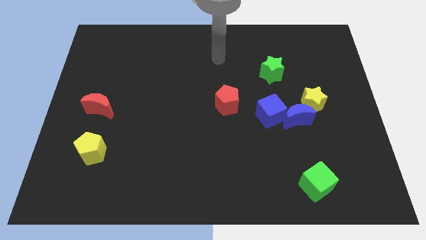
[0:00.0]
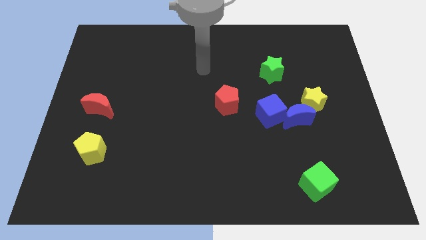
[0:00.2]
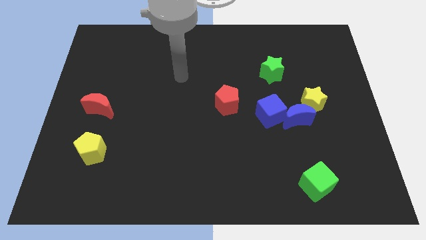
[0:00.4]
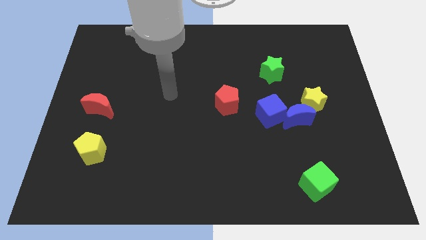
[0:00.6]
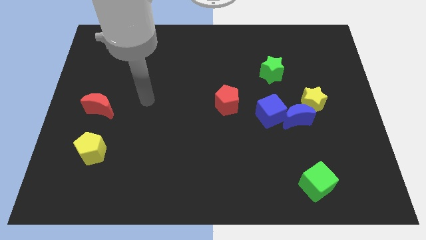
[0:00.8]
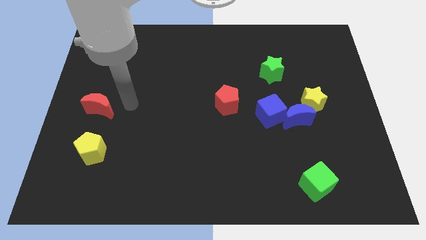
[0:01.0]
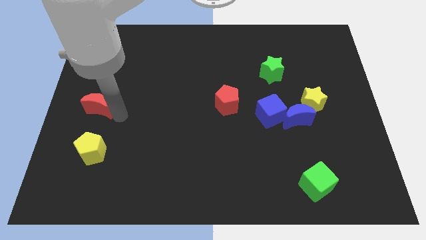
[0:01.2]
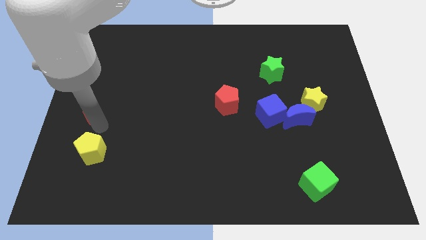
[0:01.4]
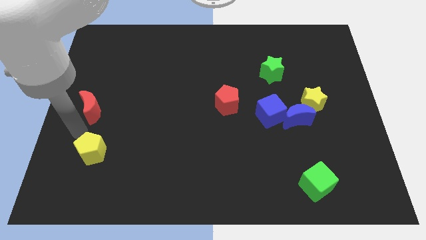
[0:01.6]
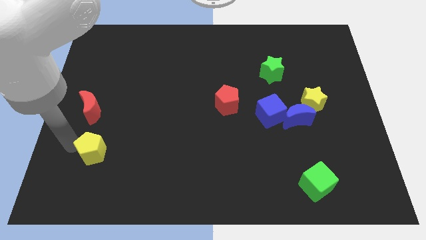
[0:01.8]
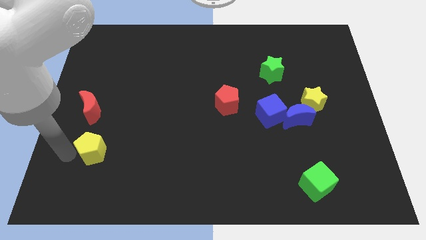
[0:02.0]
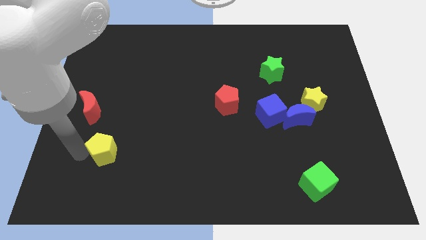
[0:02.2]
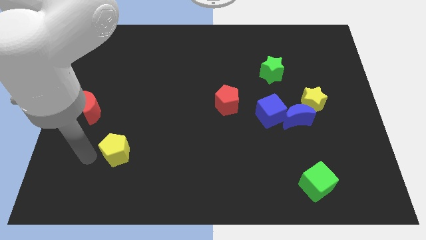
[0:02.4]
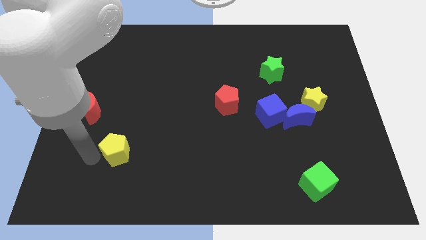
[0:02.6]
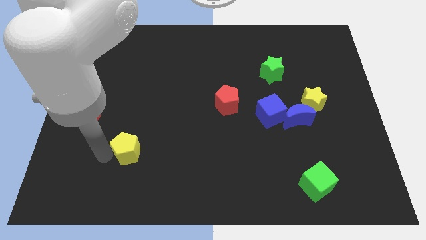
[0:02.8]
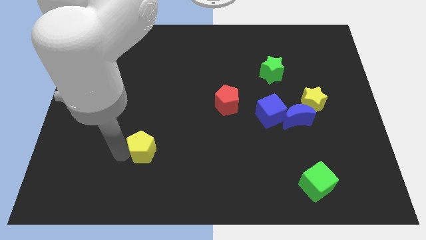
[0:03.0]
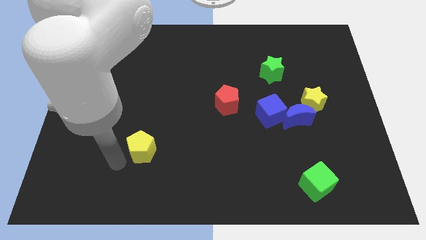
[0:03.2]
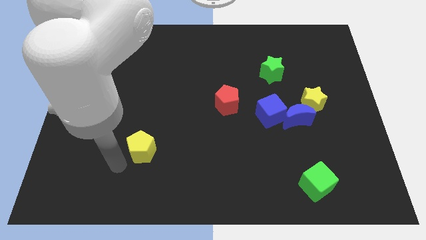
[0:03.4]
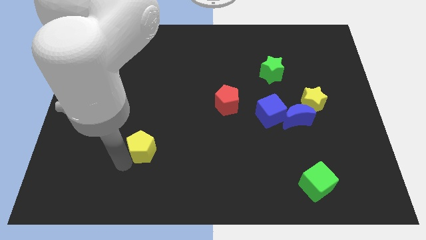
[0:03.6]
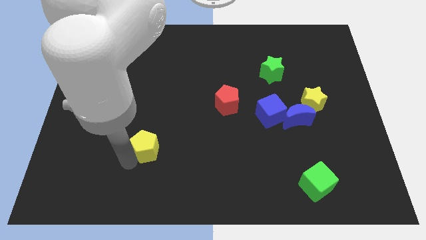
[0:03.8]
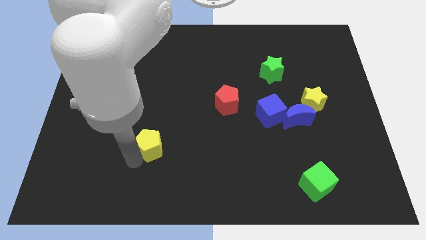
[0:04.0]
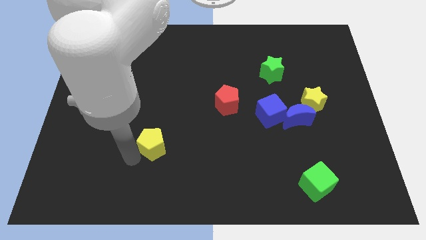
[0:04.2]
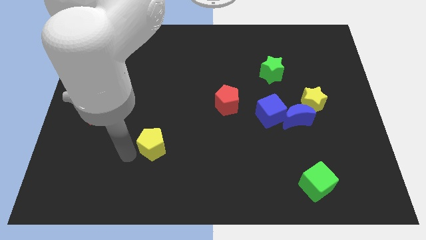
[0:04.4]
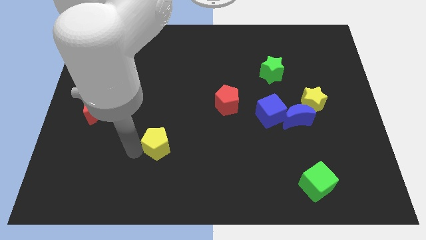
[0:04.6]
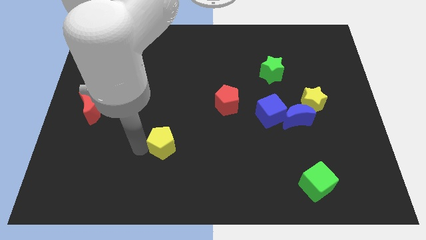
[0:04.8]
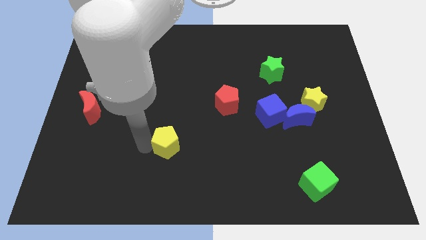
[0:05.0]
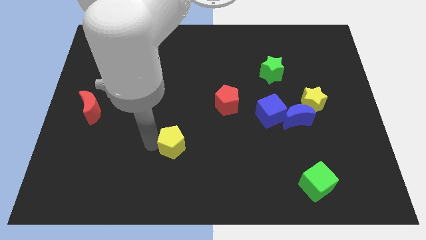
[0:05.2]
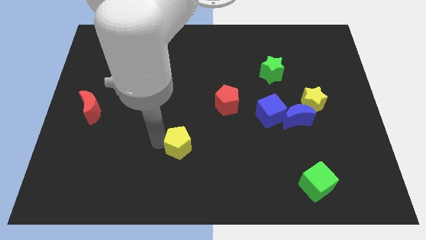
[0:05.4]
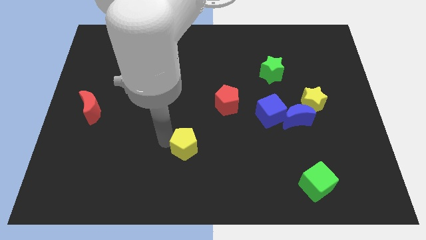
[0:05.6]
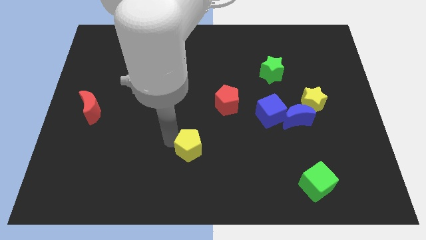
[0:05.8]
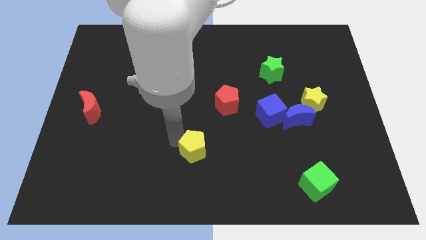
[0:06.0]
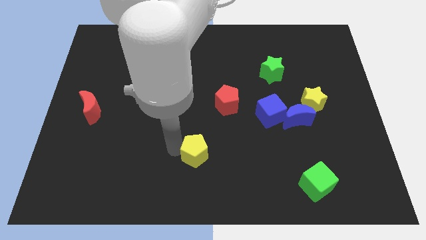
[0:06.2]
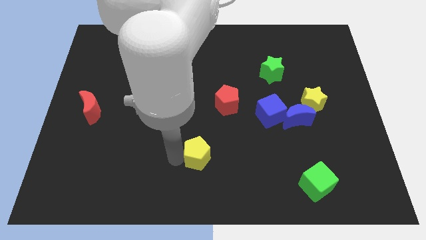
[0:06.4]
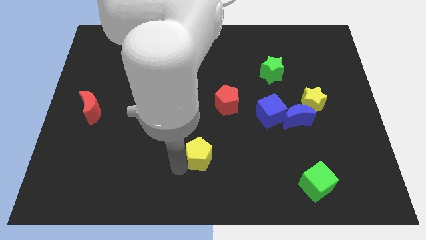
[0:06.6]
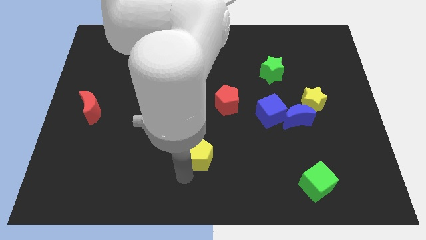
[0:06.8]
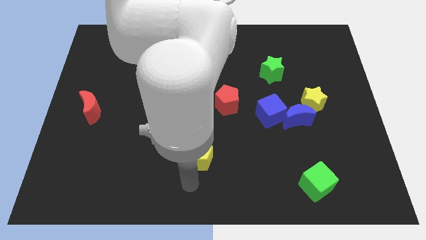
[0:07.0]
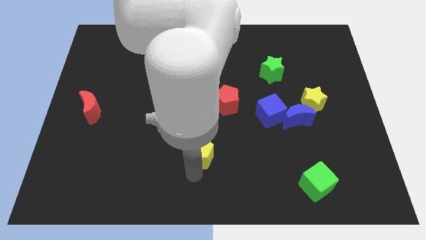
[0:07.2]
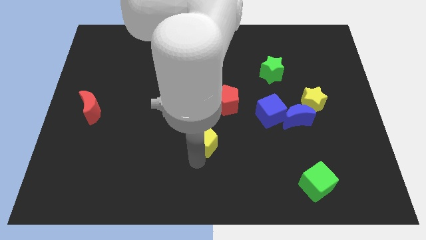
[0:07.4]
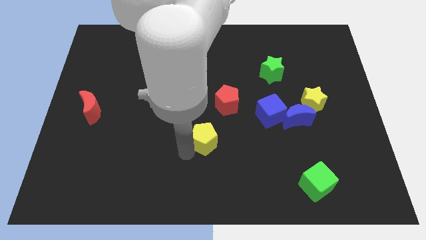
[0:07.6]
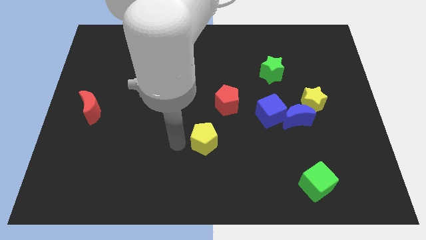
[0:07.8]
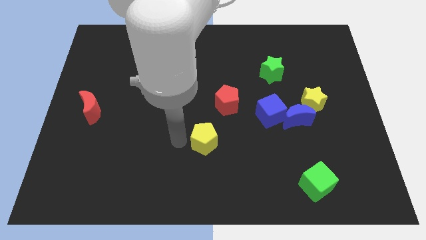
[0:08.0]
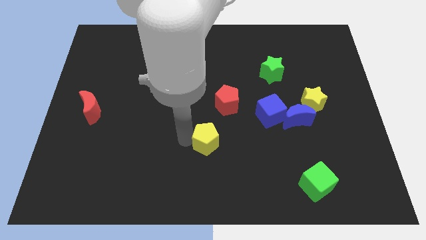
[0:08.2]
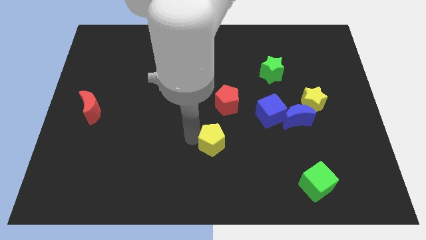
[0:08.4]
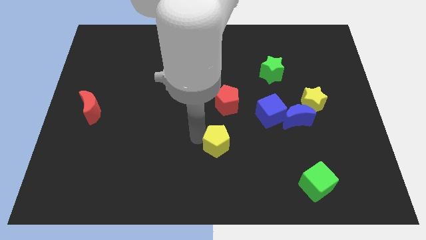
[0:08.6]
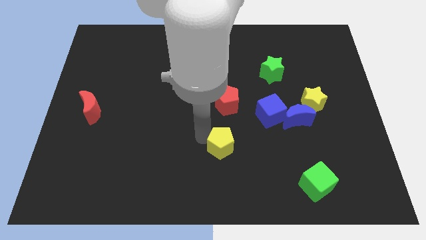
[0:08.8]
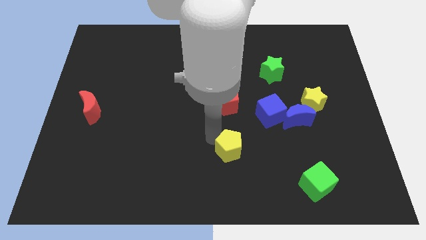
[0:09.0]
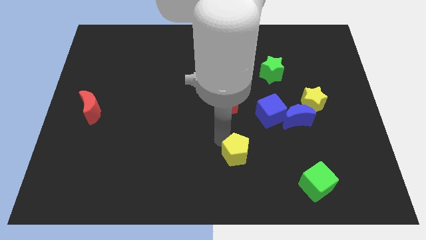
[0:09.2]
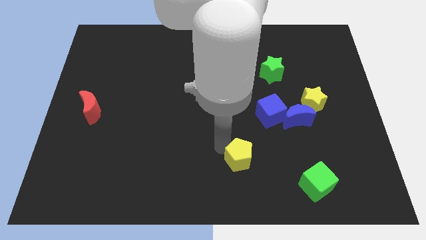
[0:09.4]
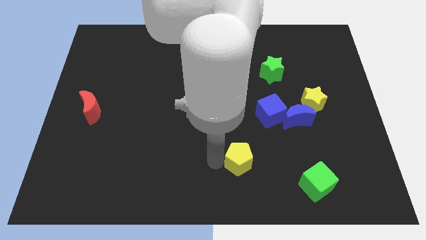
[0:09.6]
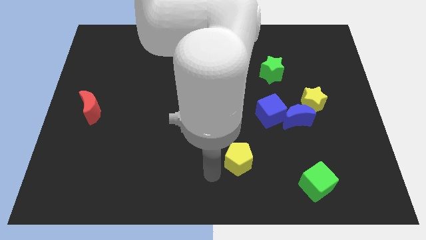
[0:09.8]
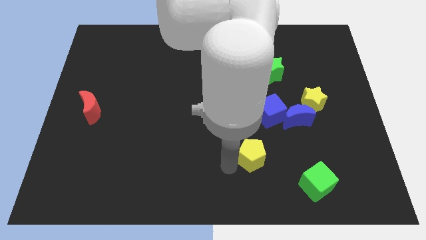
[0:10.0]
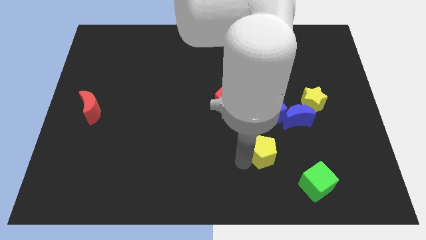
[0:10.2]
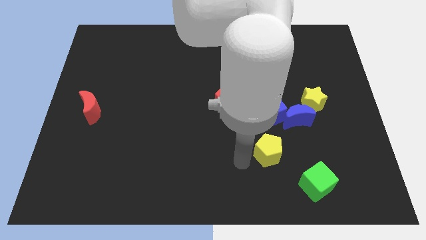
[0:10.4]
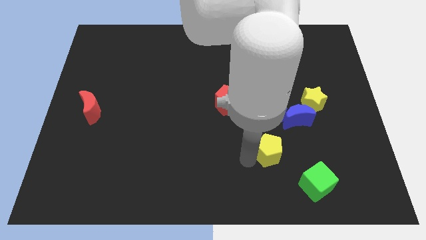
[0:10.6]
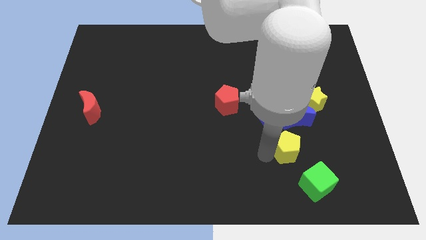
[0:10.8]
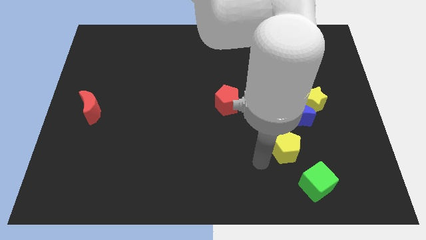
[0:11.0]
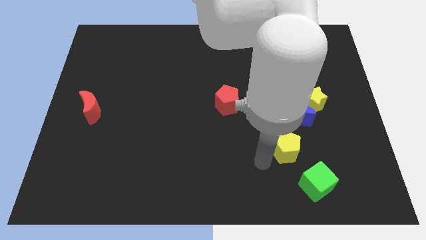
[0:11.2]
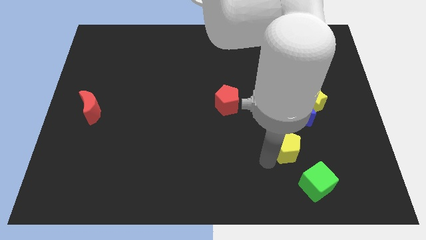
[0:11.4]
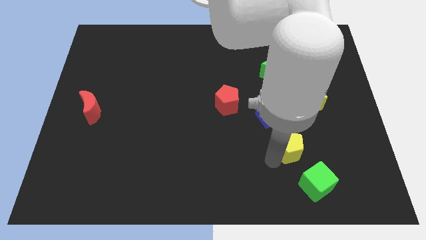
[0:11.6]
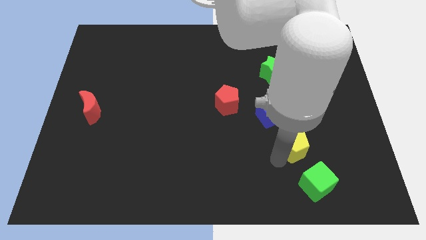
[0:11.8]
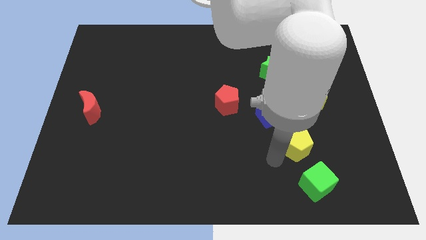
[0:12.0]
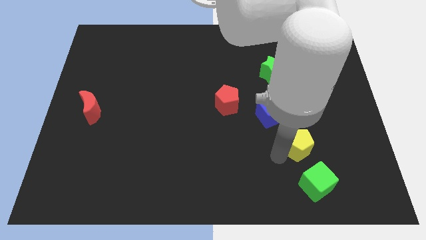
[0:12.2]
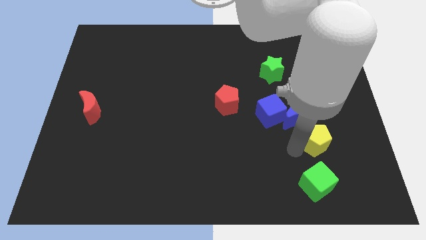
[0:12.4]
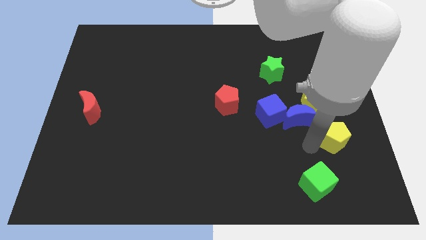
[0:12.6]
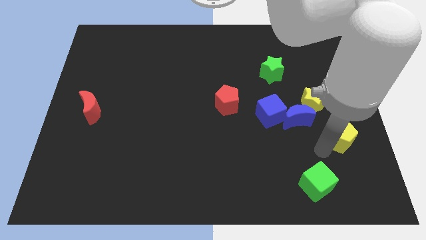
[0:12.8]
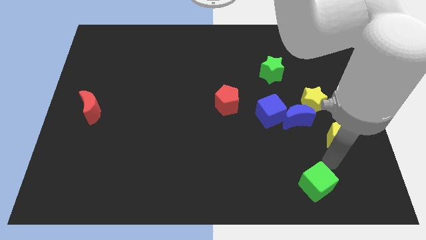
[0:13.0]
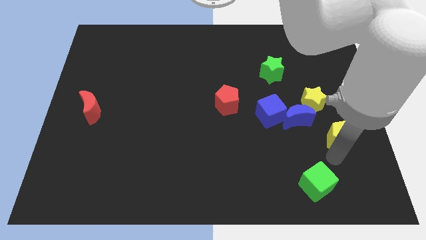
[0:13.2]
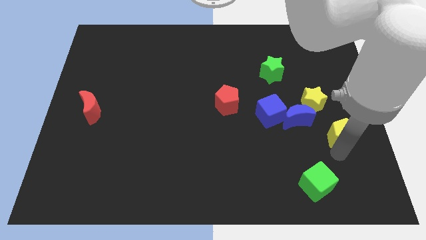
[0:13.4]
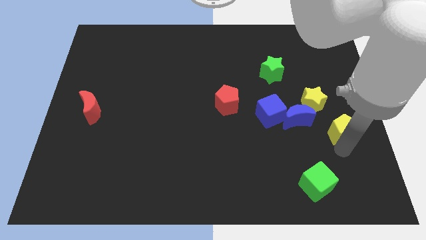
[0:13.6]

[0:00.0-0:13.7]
put the yellow pentagon to the center right
